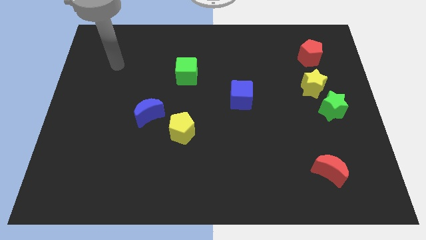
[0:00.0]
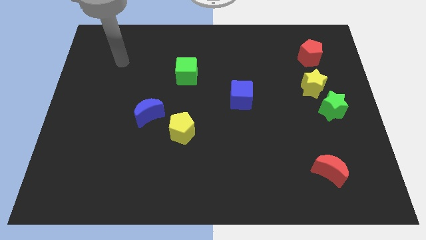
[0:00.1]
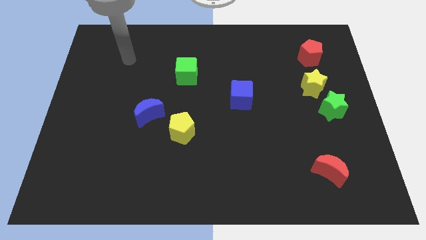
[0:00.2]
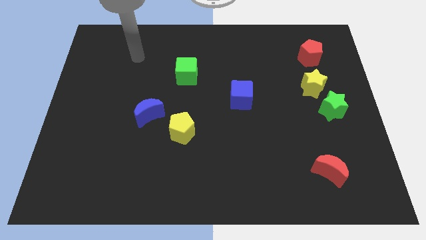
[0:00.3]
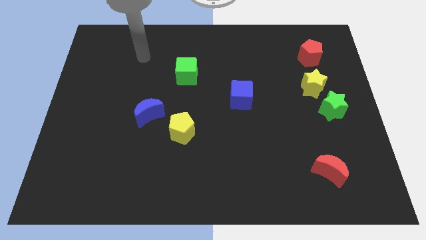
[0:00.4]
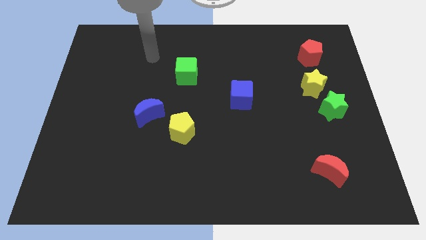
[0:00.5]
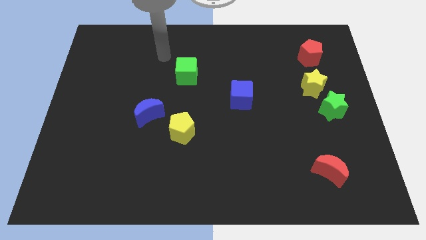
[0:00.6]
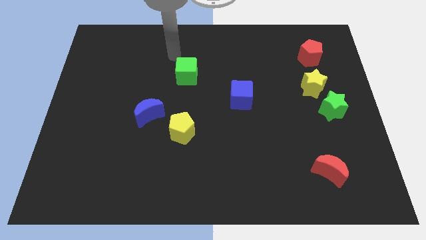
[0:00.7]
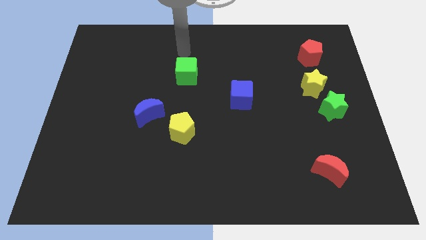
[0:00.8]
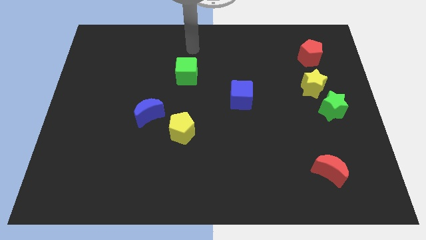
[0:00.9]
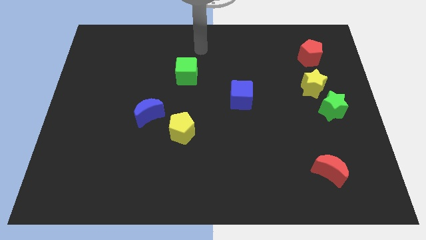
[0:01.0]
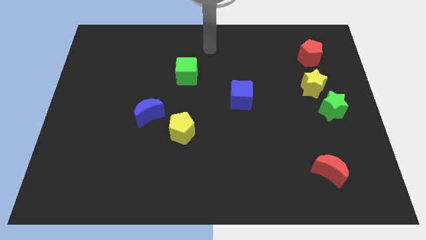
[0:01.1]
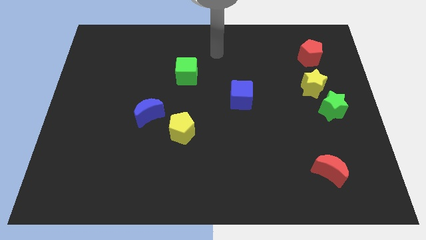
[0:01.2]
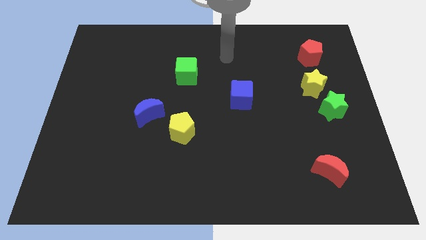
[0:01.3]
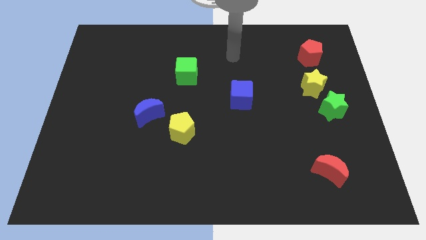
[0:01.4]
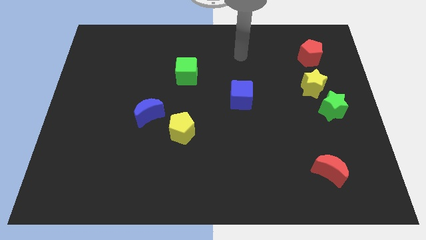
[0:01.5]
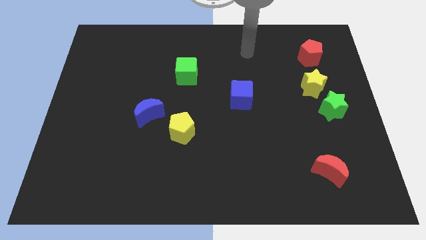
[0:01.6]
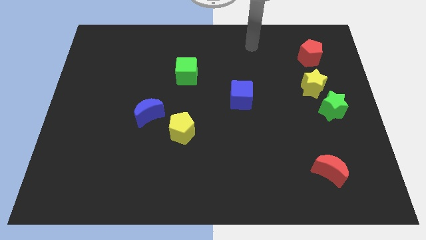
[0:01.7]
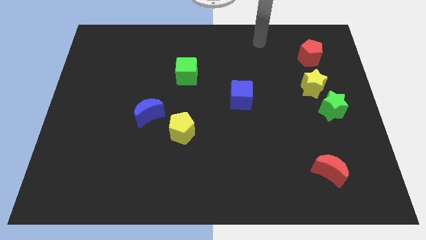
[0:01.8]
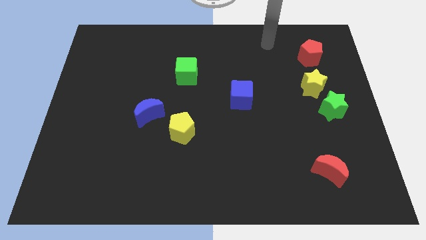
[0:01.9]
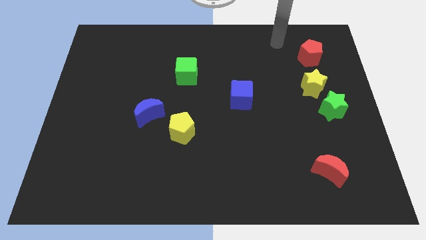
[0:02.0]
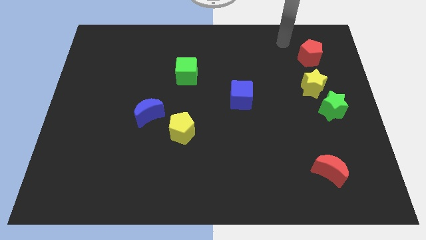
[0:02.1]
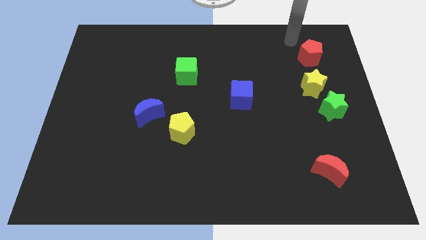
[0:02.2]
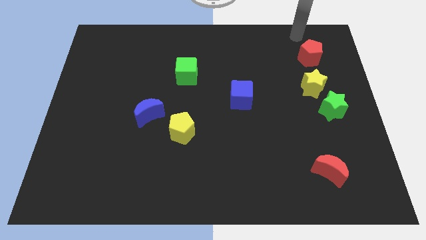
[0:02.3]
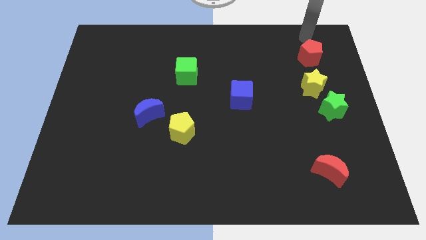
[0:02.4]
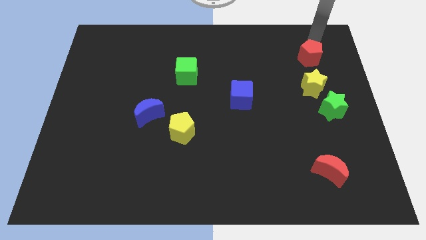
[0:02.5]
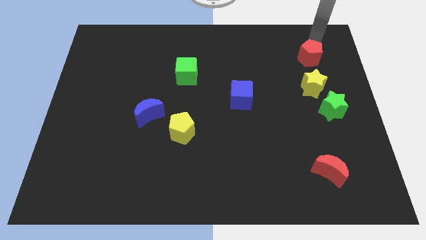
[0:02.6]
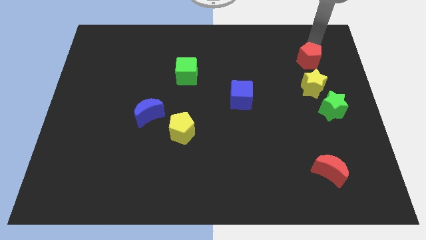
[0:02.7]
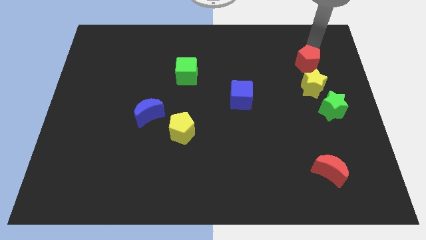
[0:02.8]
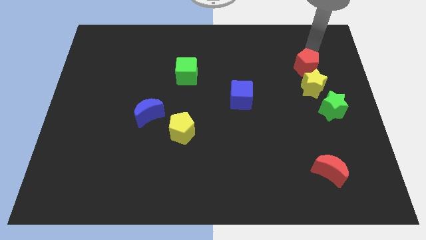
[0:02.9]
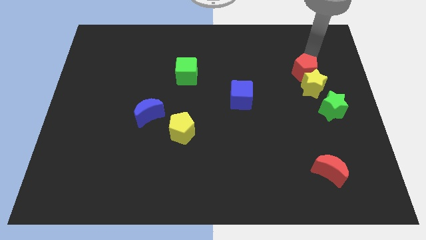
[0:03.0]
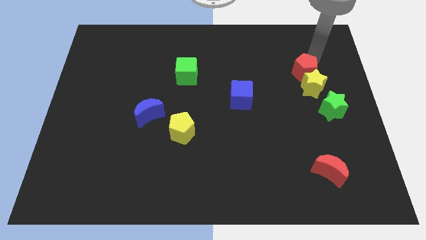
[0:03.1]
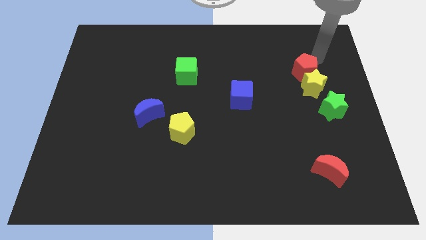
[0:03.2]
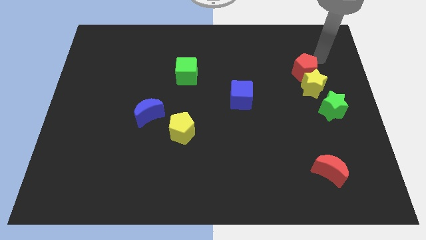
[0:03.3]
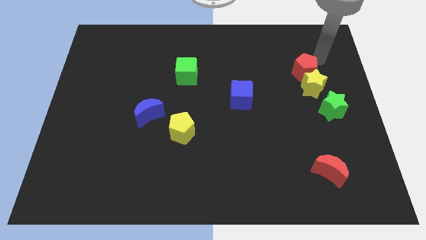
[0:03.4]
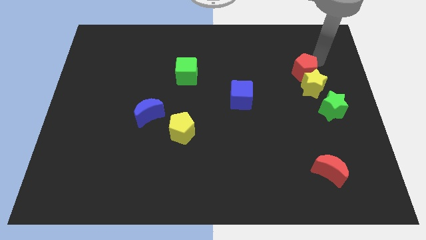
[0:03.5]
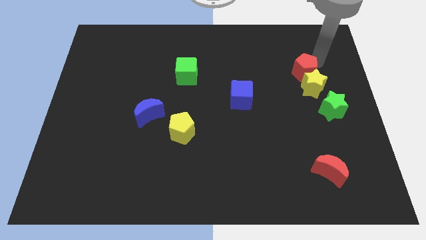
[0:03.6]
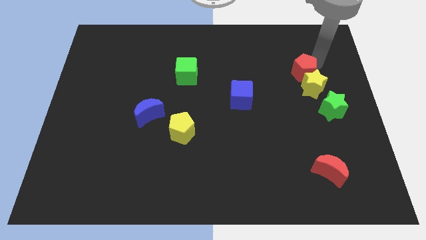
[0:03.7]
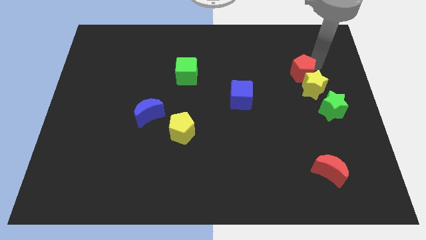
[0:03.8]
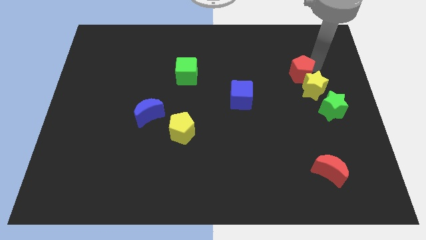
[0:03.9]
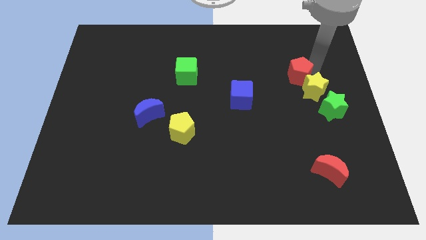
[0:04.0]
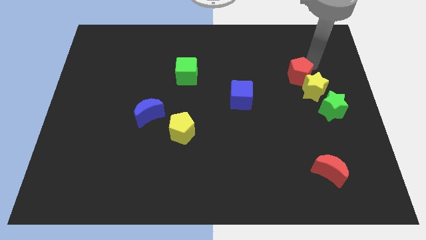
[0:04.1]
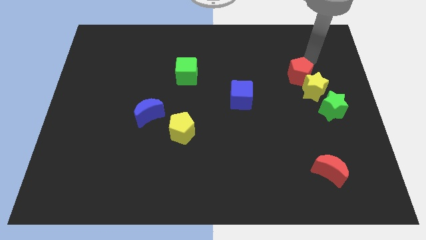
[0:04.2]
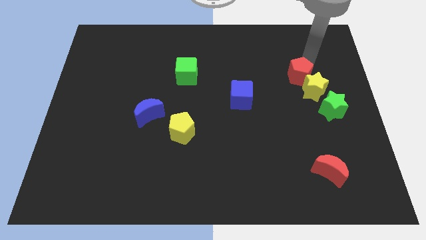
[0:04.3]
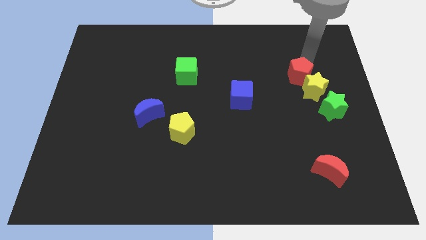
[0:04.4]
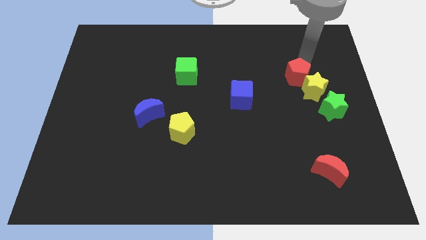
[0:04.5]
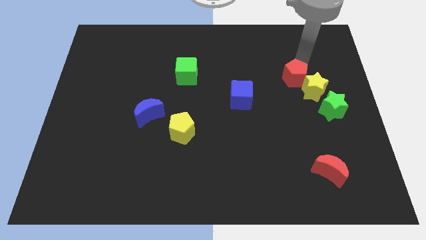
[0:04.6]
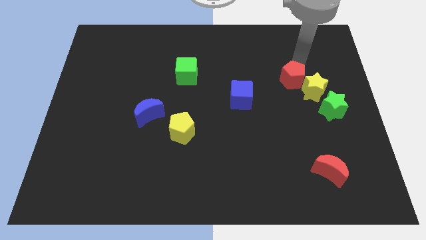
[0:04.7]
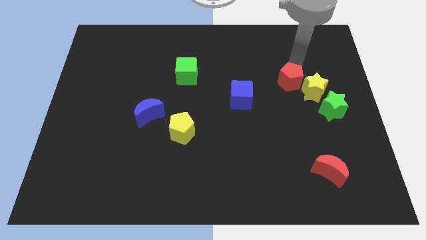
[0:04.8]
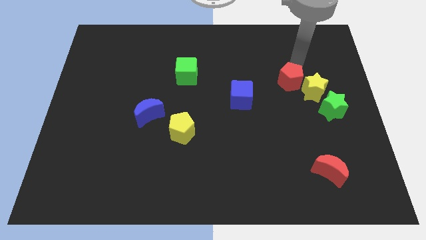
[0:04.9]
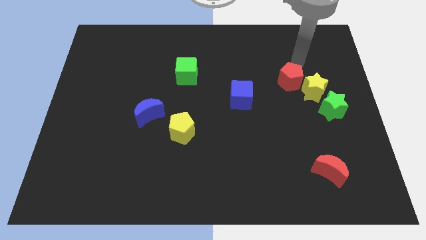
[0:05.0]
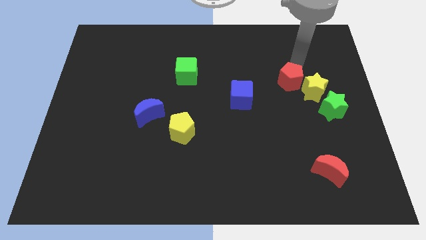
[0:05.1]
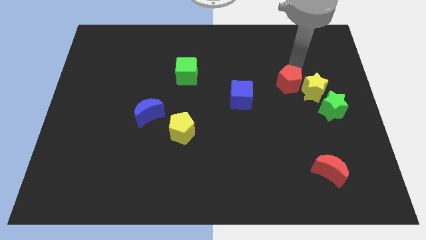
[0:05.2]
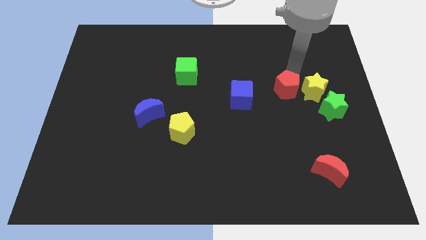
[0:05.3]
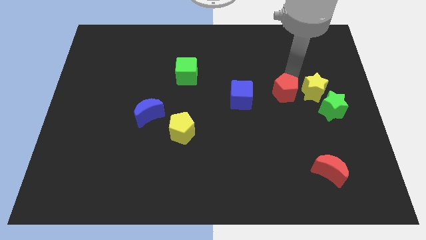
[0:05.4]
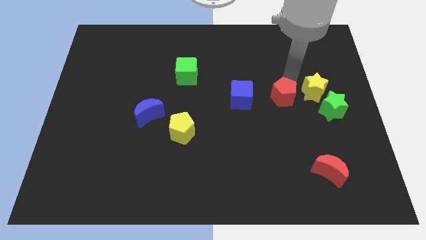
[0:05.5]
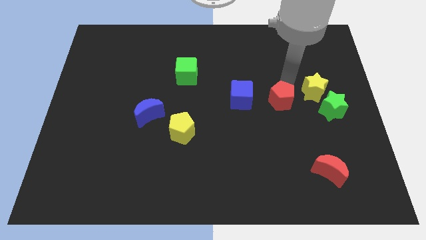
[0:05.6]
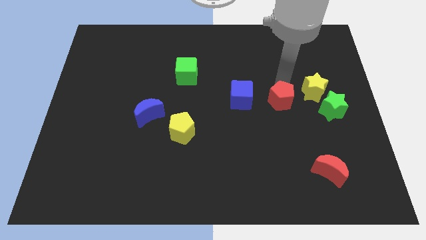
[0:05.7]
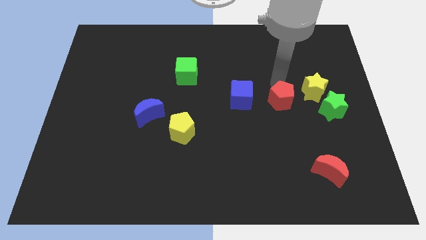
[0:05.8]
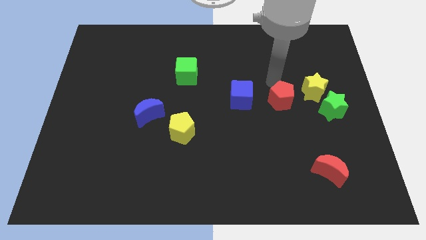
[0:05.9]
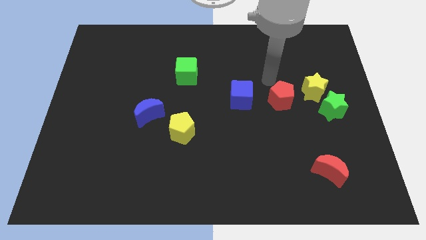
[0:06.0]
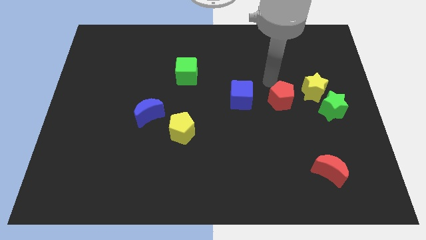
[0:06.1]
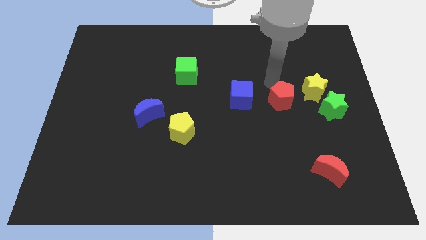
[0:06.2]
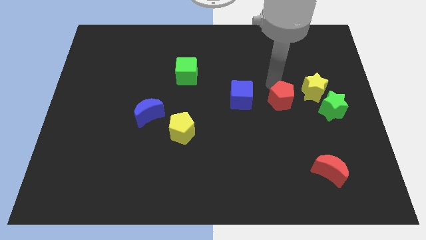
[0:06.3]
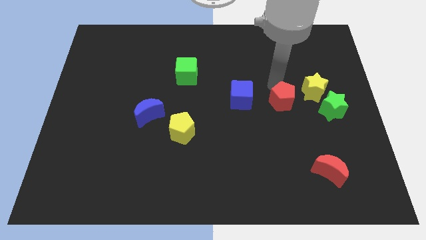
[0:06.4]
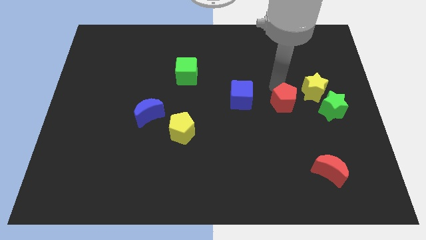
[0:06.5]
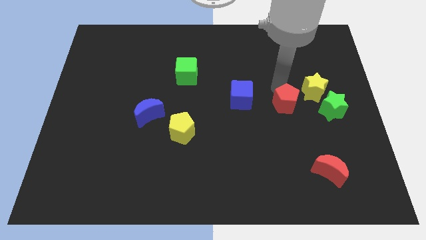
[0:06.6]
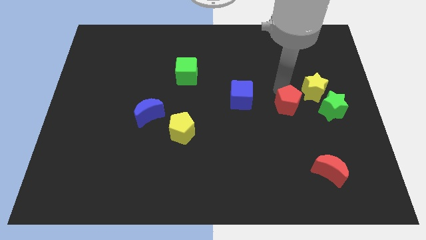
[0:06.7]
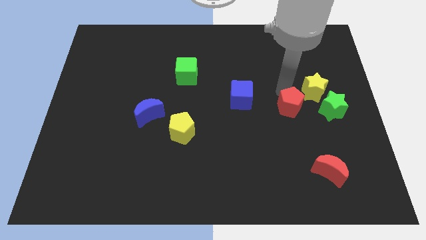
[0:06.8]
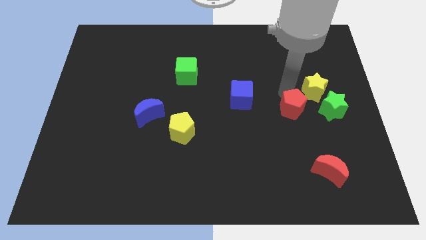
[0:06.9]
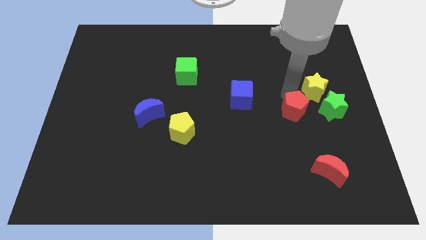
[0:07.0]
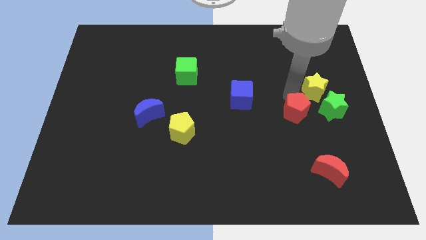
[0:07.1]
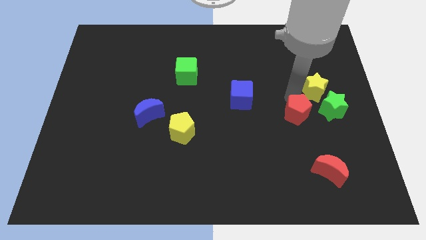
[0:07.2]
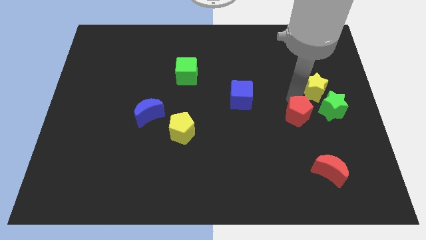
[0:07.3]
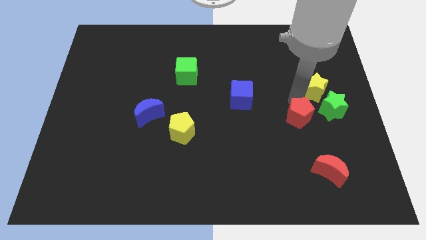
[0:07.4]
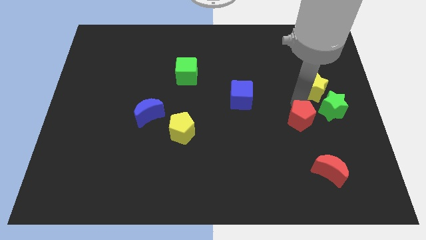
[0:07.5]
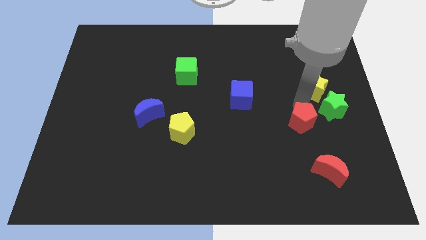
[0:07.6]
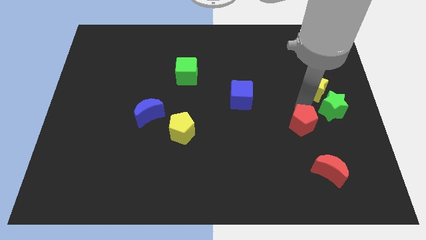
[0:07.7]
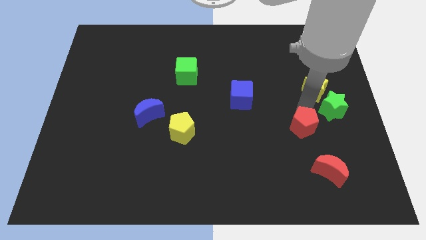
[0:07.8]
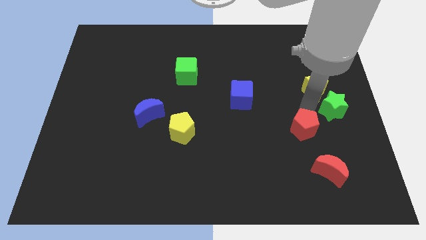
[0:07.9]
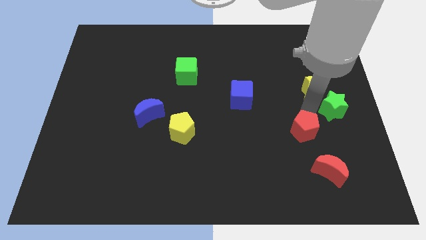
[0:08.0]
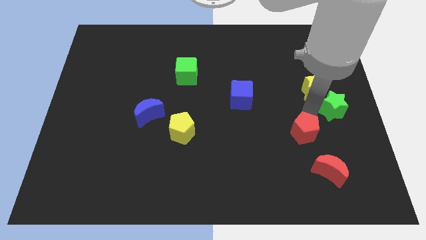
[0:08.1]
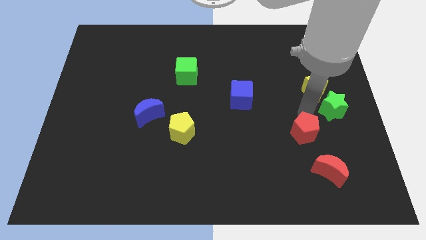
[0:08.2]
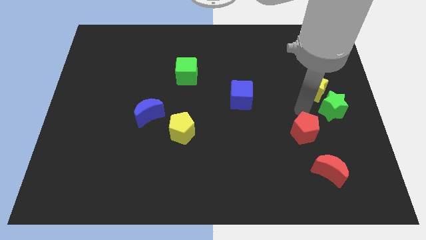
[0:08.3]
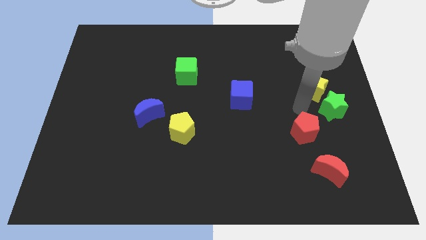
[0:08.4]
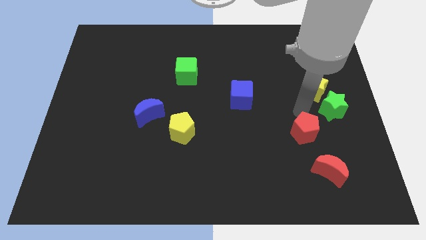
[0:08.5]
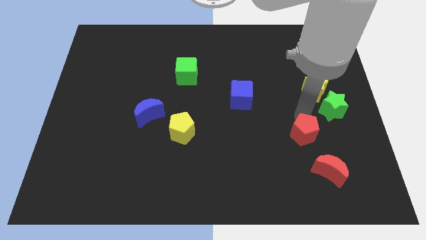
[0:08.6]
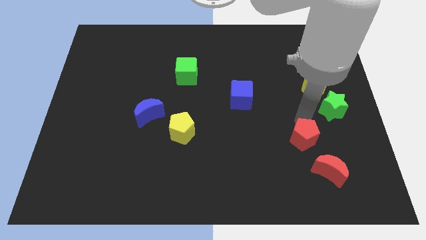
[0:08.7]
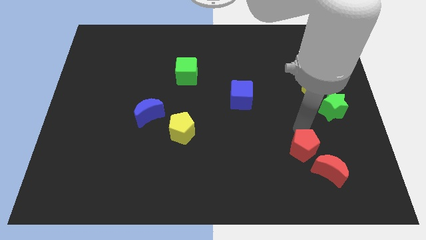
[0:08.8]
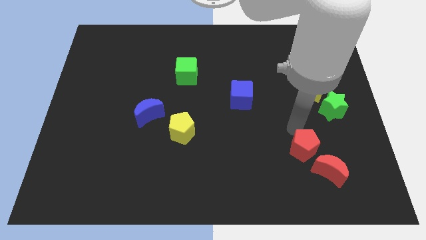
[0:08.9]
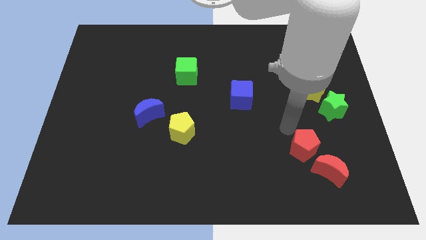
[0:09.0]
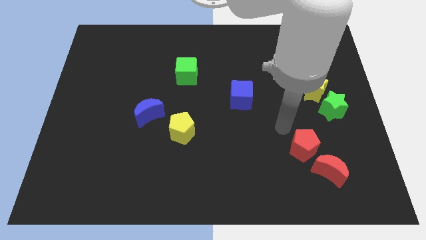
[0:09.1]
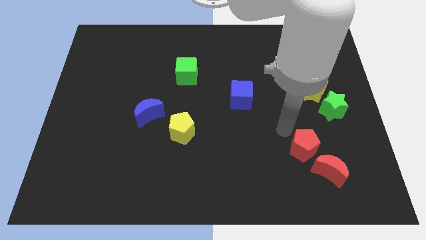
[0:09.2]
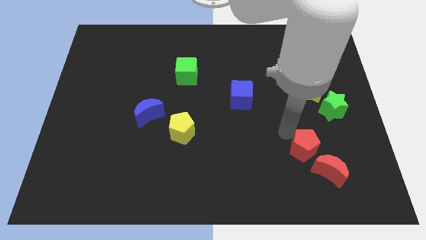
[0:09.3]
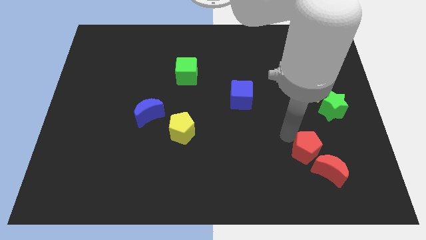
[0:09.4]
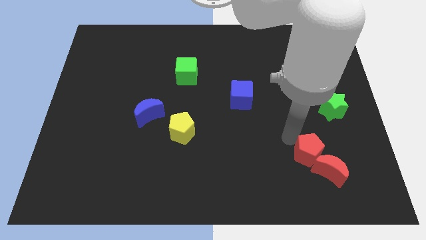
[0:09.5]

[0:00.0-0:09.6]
put the red pentagon next to the red moon
